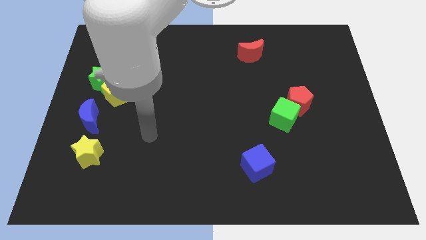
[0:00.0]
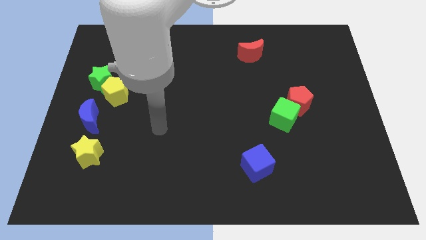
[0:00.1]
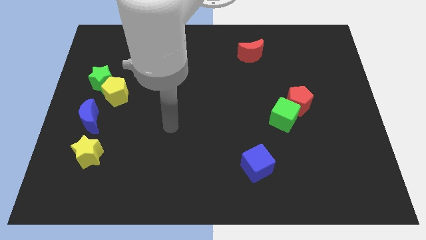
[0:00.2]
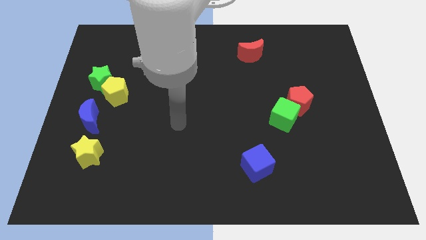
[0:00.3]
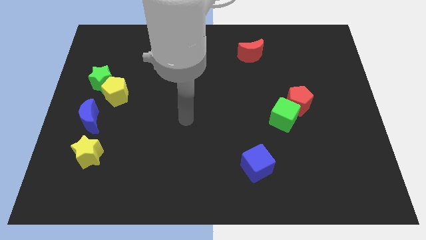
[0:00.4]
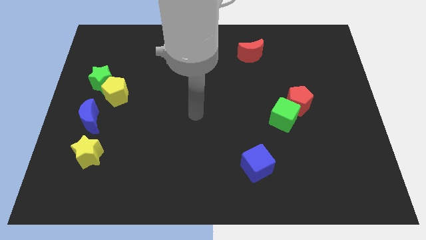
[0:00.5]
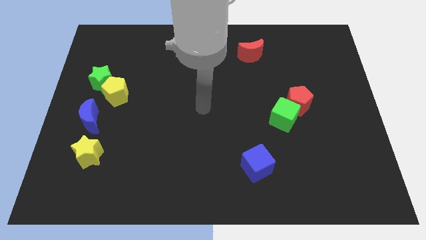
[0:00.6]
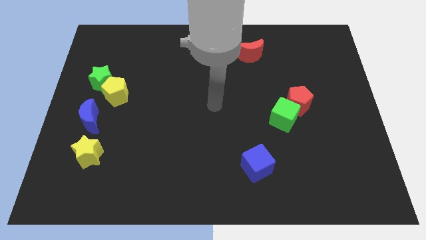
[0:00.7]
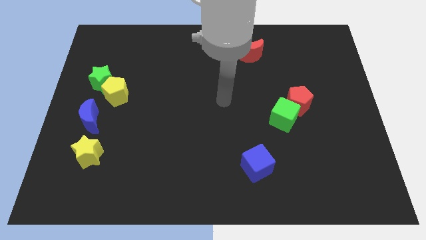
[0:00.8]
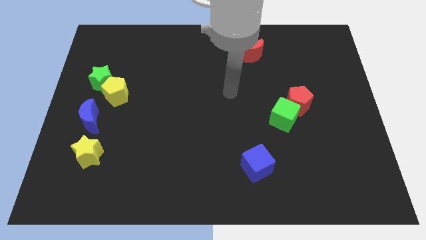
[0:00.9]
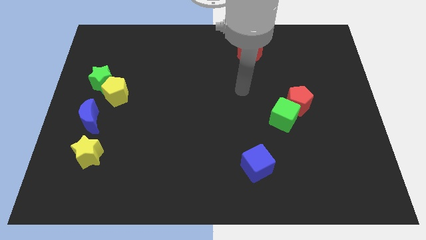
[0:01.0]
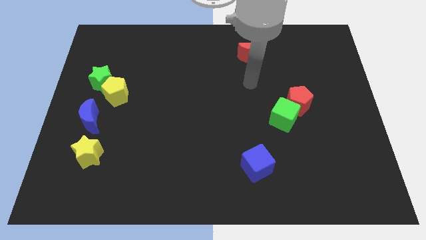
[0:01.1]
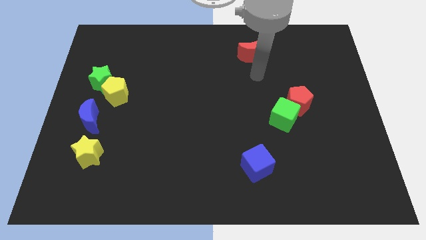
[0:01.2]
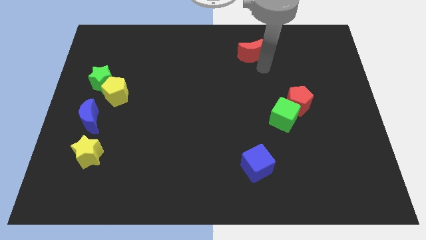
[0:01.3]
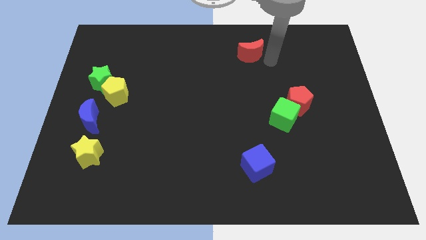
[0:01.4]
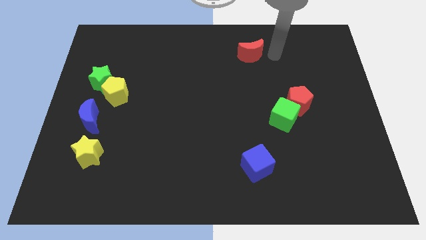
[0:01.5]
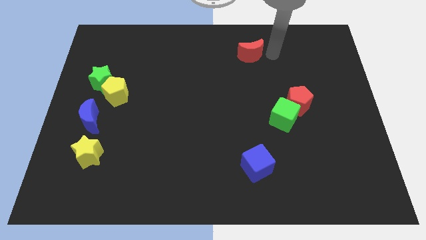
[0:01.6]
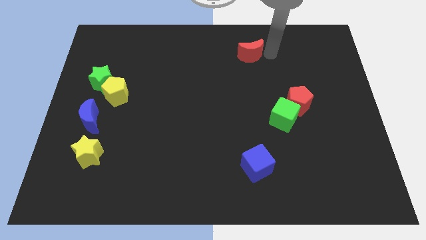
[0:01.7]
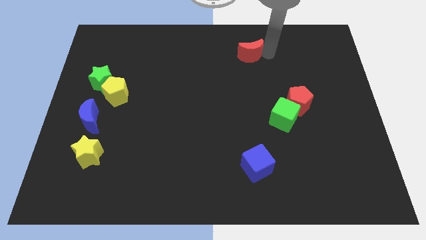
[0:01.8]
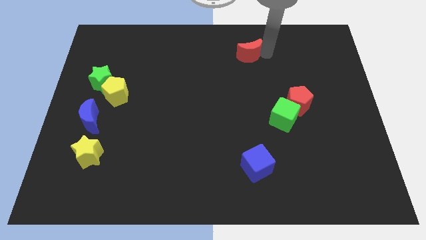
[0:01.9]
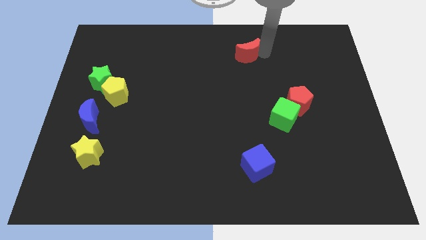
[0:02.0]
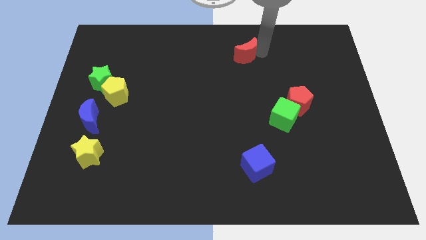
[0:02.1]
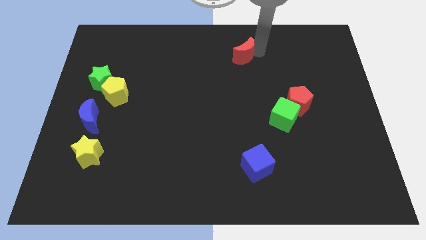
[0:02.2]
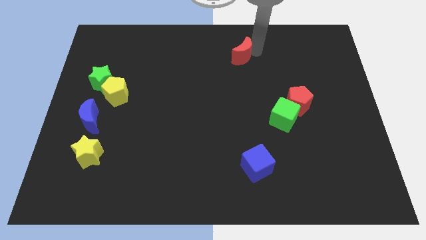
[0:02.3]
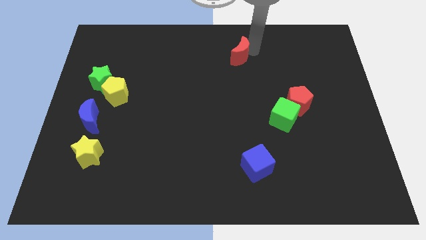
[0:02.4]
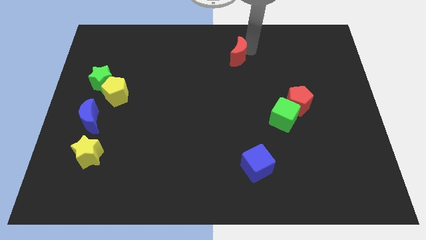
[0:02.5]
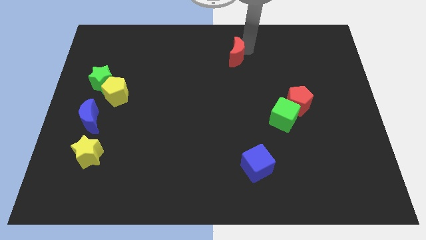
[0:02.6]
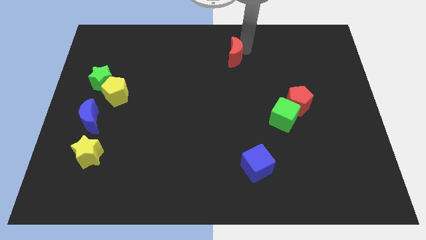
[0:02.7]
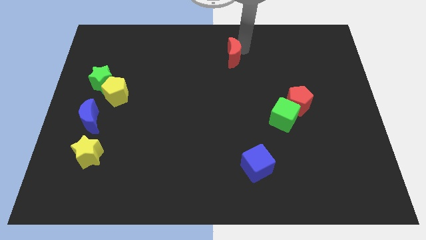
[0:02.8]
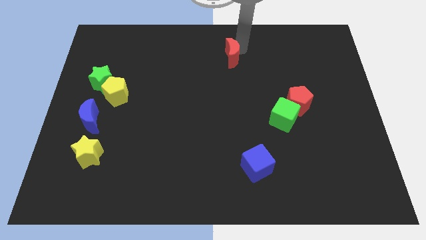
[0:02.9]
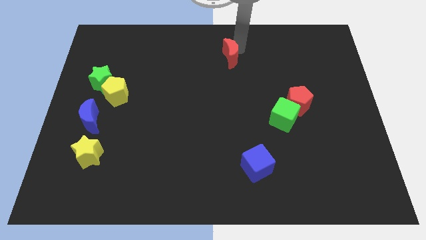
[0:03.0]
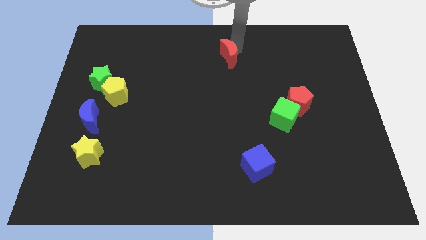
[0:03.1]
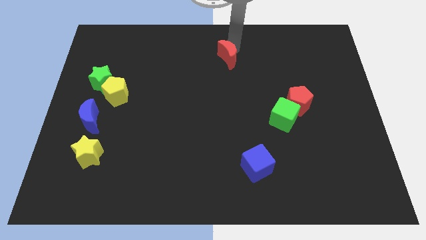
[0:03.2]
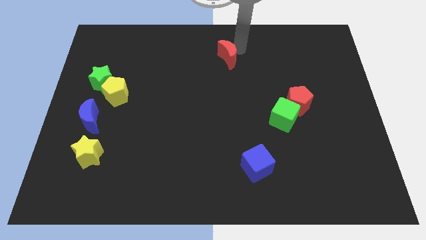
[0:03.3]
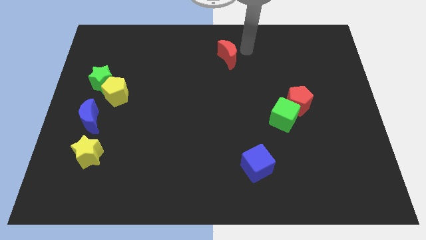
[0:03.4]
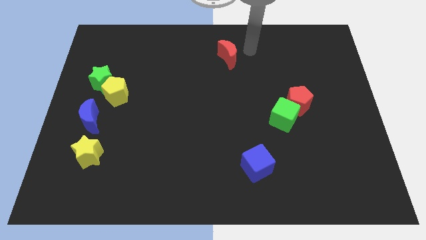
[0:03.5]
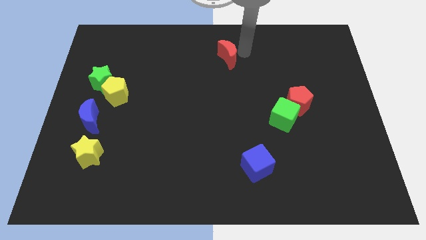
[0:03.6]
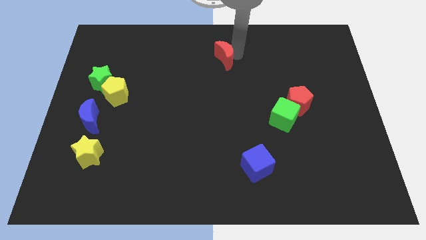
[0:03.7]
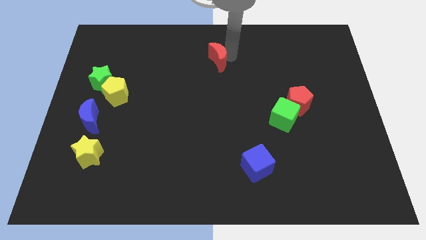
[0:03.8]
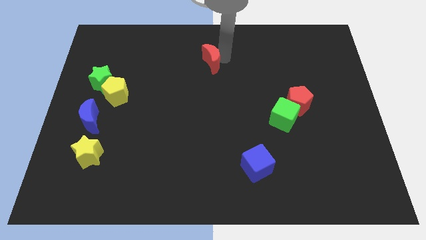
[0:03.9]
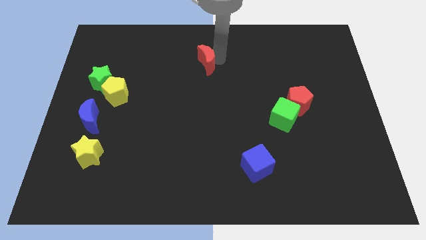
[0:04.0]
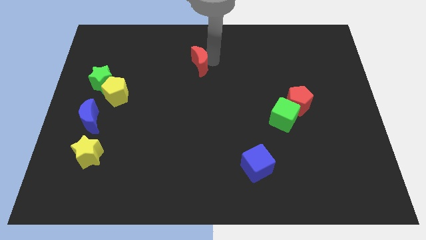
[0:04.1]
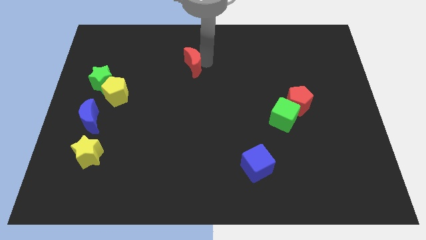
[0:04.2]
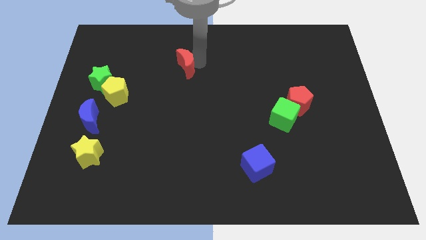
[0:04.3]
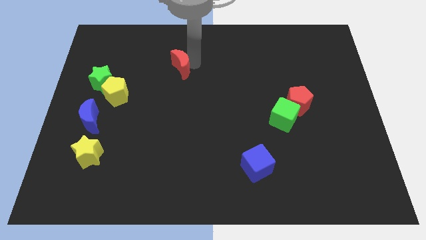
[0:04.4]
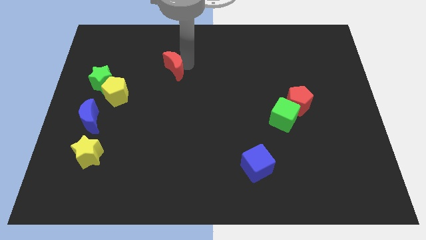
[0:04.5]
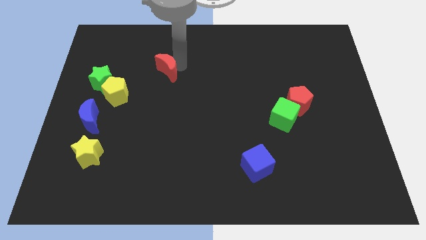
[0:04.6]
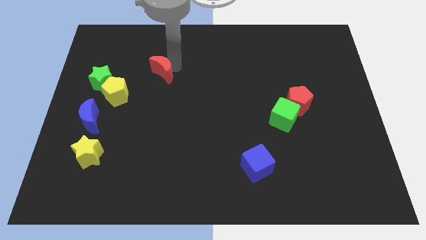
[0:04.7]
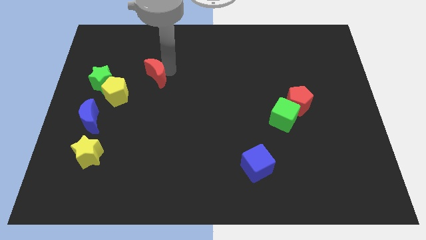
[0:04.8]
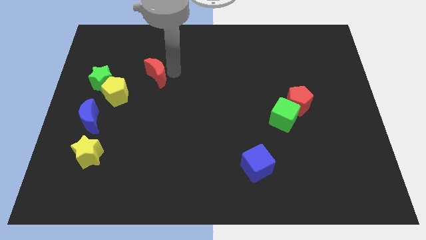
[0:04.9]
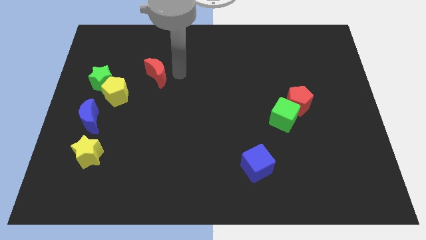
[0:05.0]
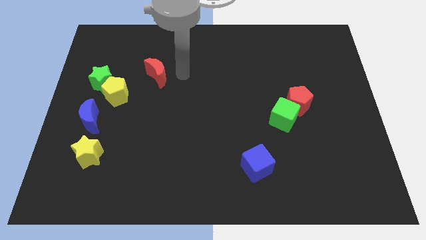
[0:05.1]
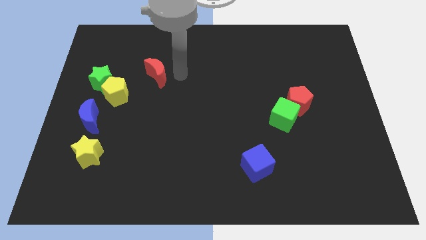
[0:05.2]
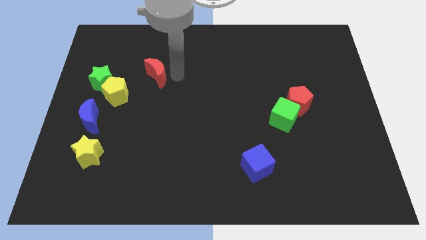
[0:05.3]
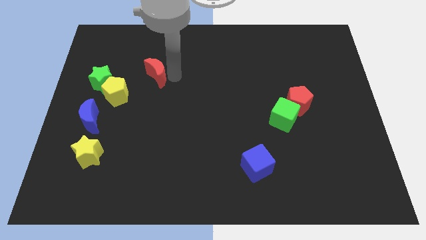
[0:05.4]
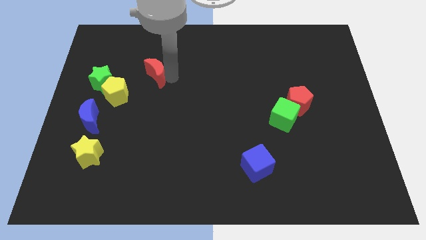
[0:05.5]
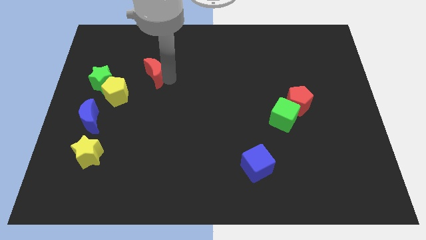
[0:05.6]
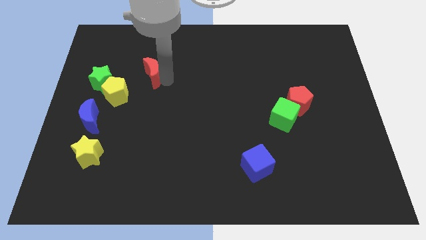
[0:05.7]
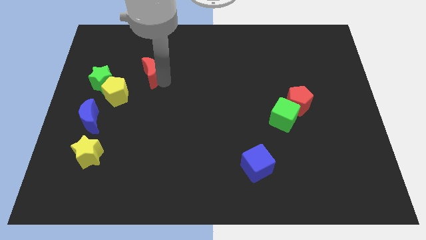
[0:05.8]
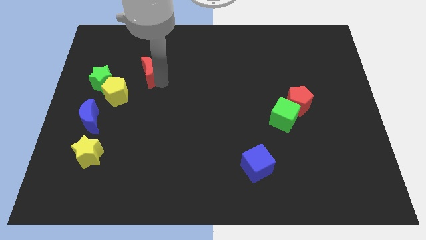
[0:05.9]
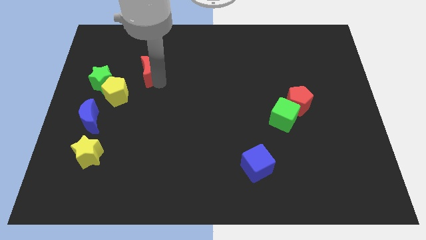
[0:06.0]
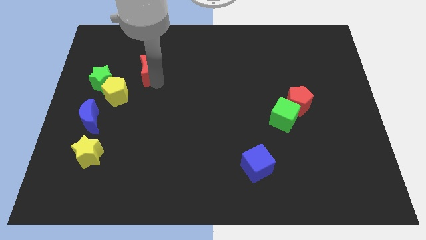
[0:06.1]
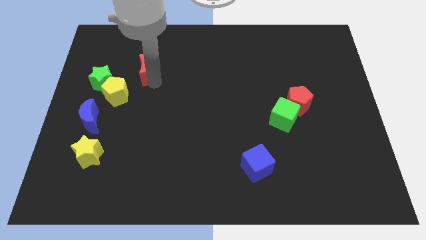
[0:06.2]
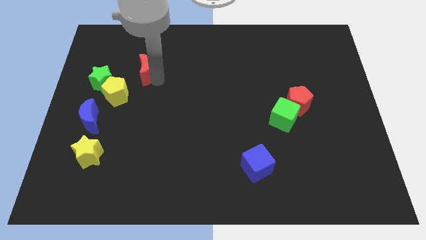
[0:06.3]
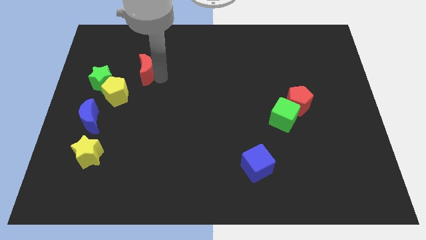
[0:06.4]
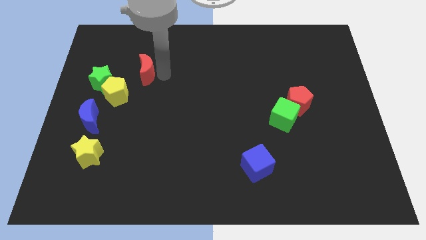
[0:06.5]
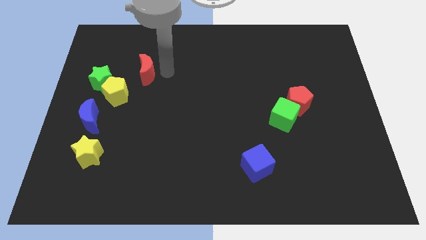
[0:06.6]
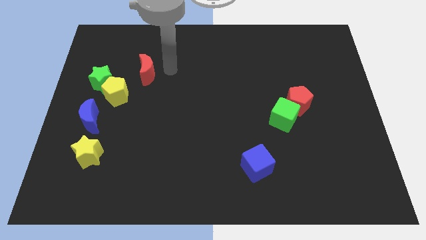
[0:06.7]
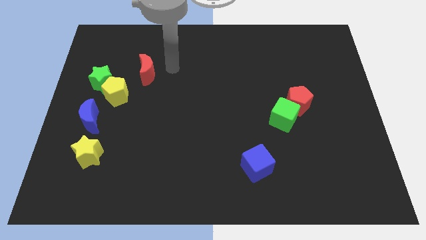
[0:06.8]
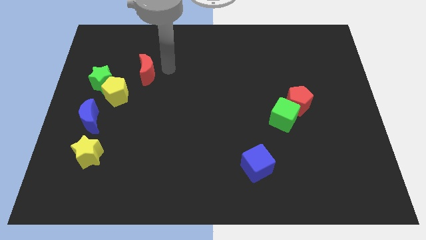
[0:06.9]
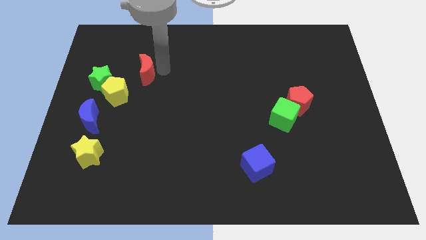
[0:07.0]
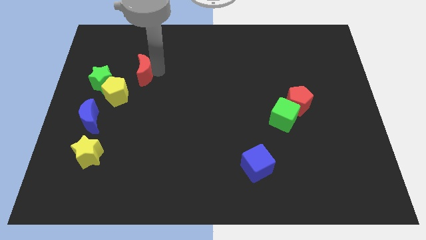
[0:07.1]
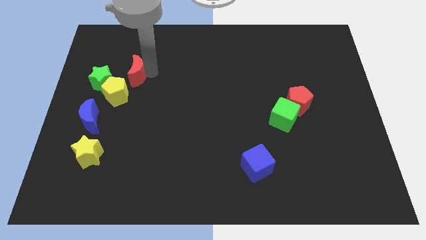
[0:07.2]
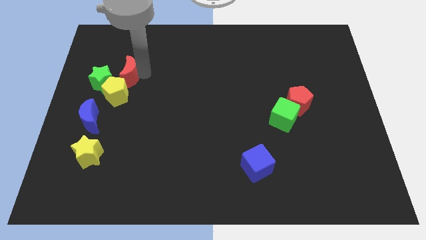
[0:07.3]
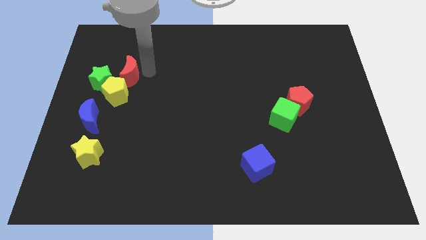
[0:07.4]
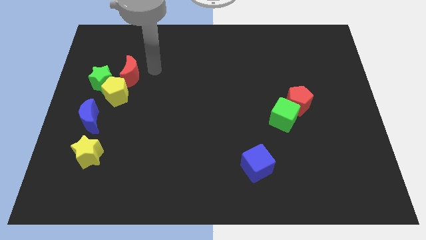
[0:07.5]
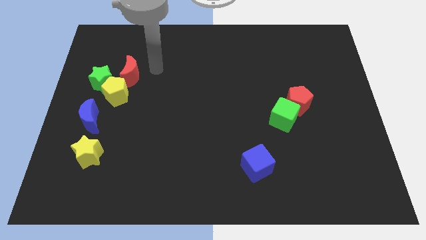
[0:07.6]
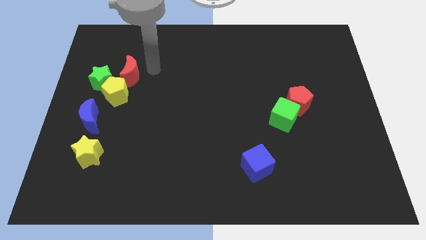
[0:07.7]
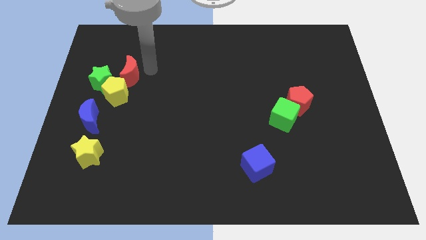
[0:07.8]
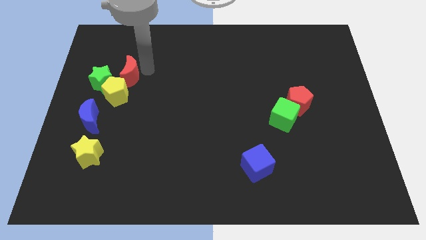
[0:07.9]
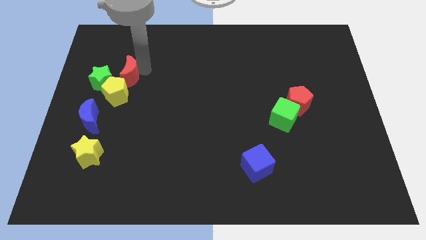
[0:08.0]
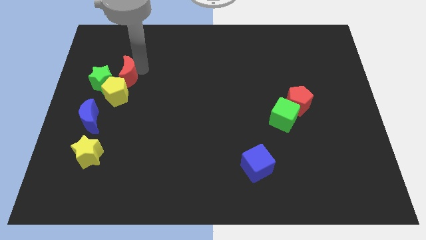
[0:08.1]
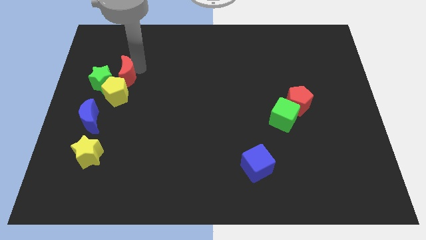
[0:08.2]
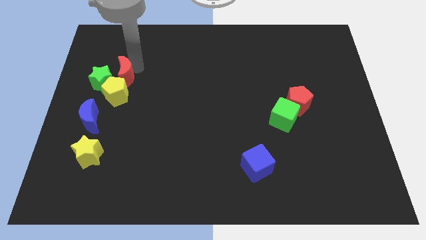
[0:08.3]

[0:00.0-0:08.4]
put the red moon close to the green star
